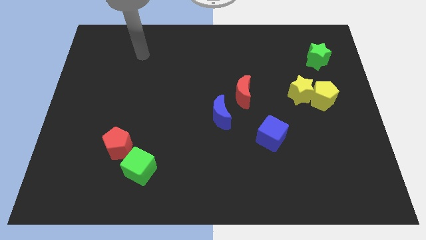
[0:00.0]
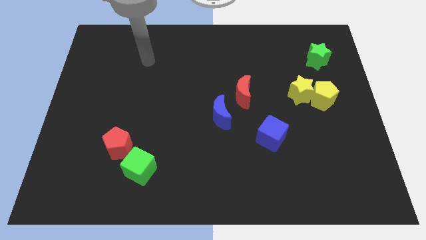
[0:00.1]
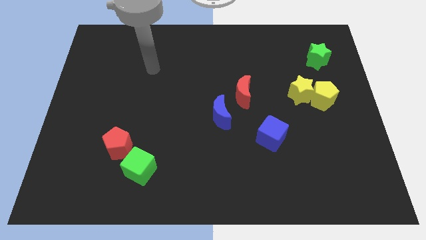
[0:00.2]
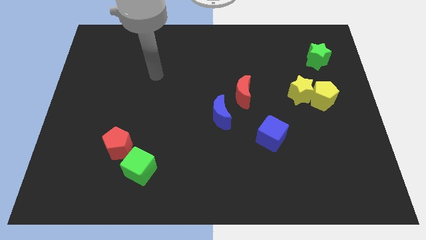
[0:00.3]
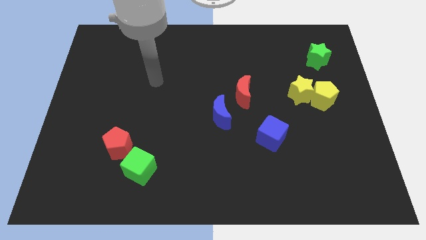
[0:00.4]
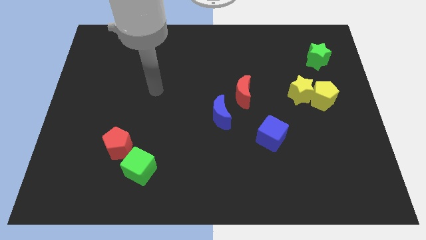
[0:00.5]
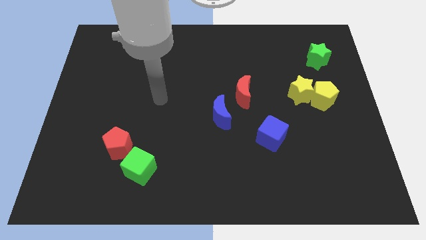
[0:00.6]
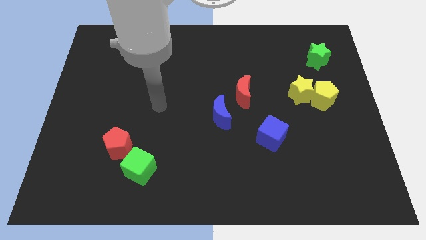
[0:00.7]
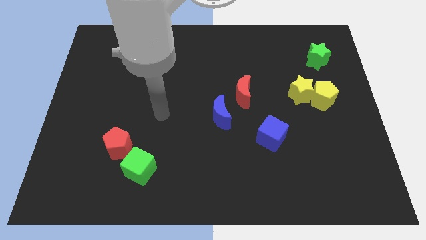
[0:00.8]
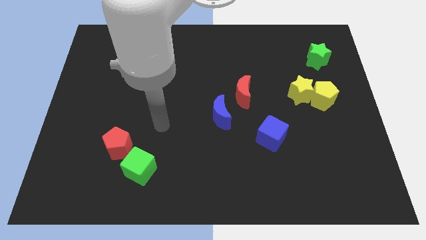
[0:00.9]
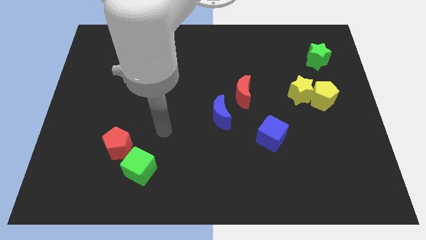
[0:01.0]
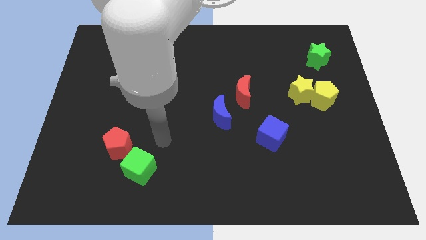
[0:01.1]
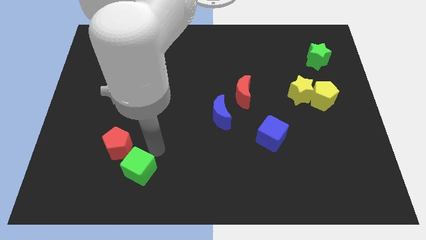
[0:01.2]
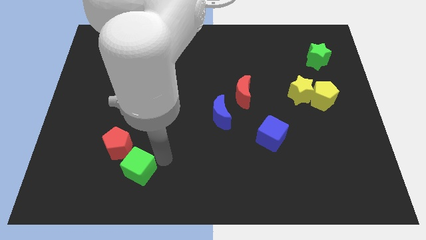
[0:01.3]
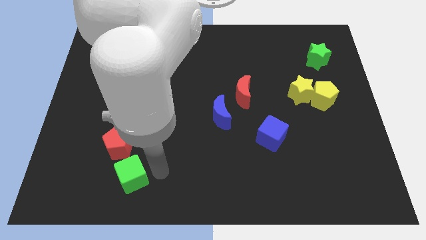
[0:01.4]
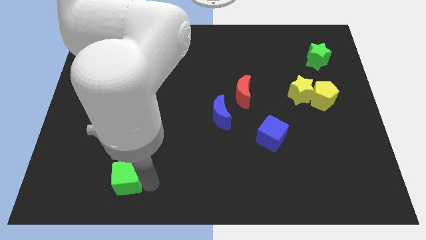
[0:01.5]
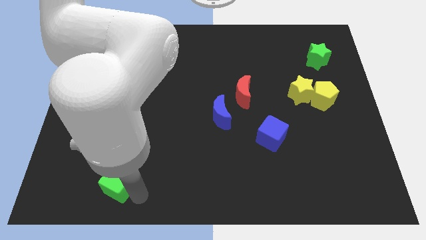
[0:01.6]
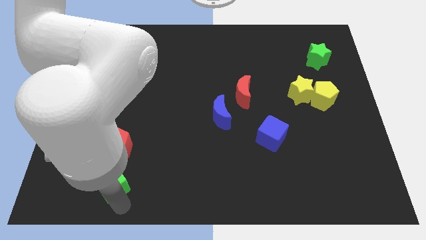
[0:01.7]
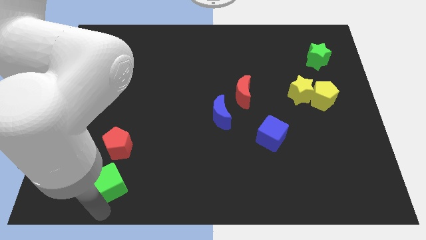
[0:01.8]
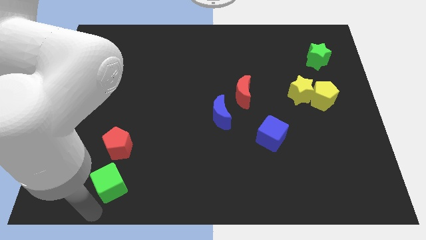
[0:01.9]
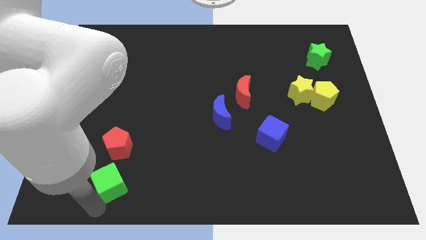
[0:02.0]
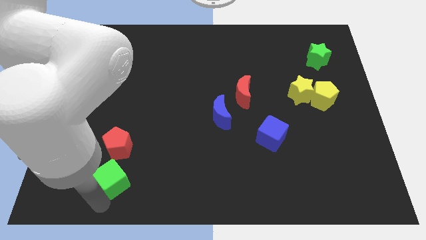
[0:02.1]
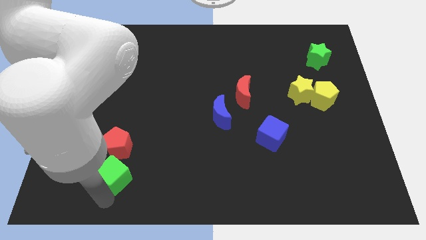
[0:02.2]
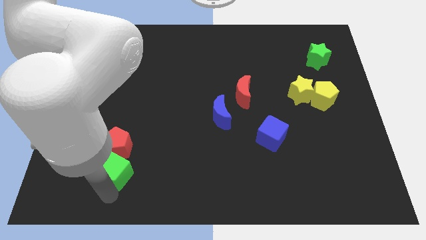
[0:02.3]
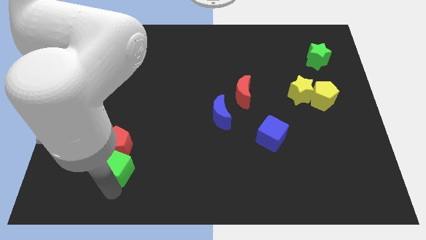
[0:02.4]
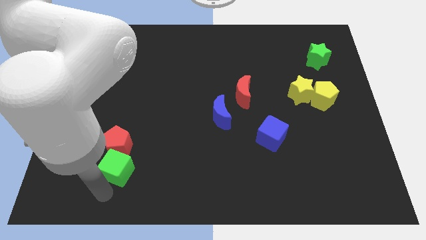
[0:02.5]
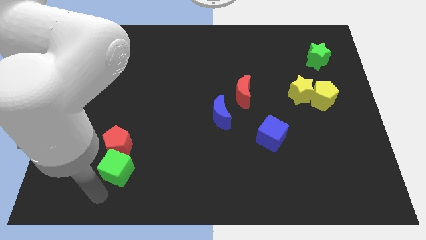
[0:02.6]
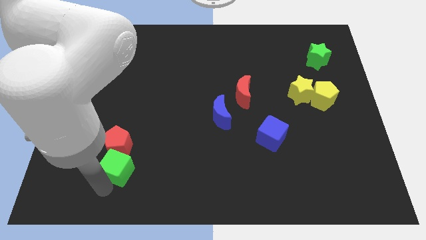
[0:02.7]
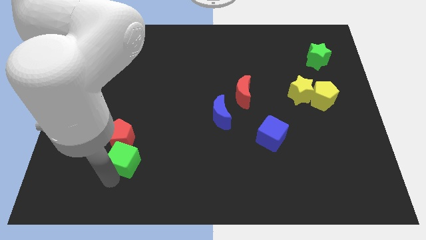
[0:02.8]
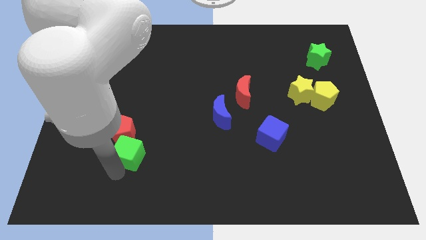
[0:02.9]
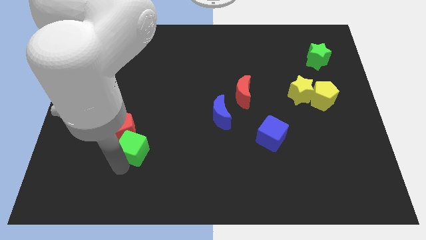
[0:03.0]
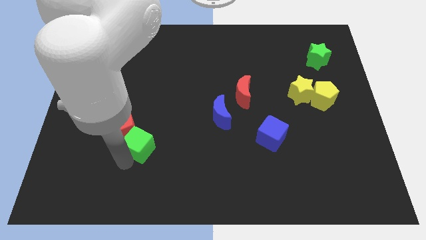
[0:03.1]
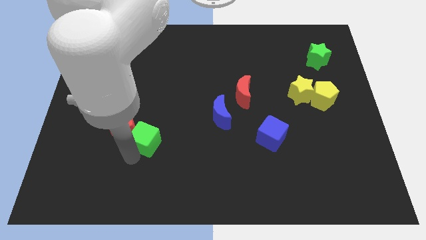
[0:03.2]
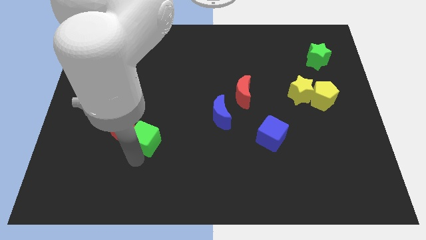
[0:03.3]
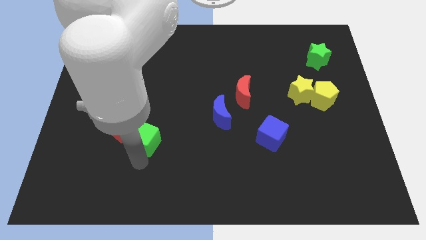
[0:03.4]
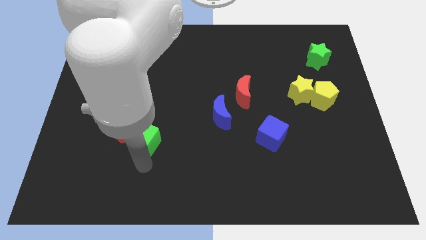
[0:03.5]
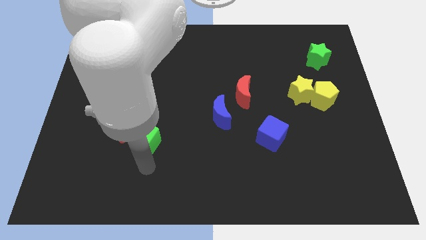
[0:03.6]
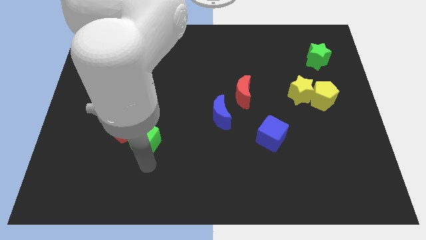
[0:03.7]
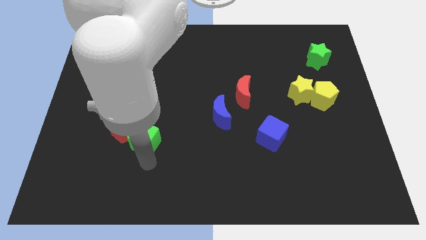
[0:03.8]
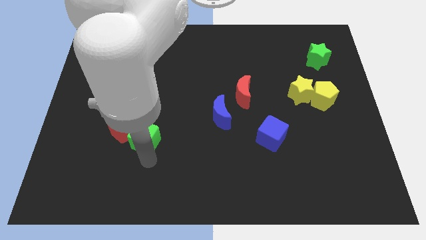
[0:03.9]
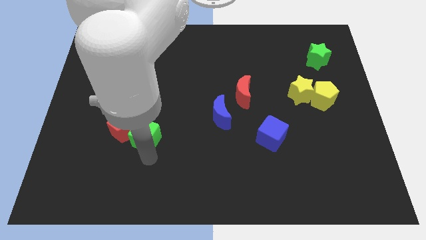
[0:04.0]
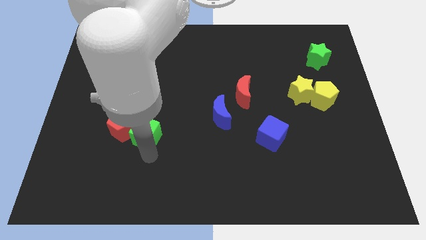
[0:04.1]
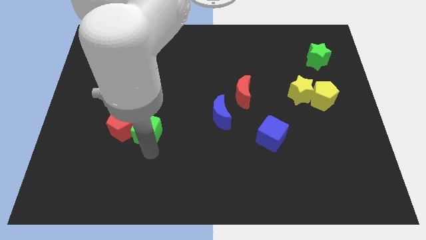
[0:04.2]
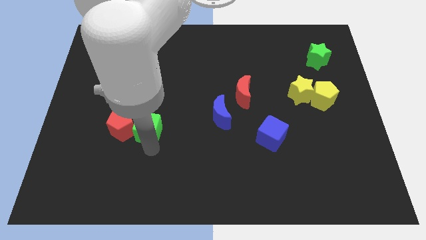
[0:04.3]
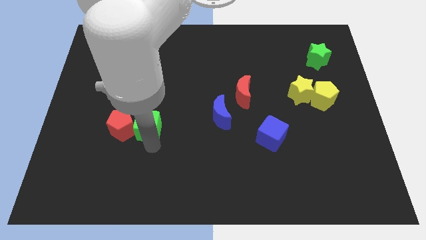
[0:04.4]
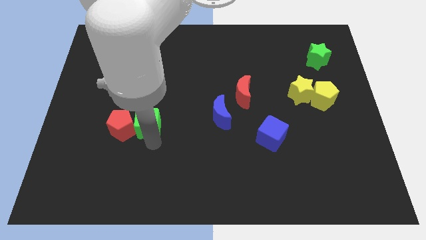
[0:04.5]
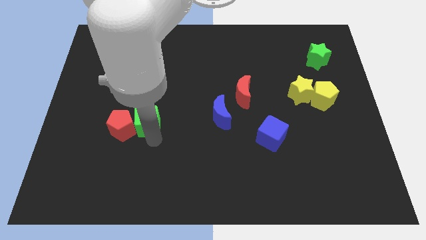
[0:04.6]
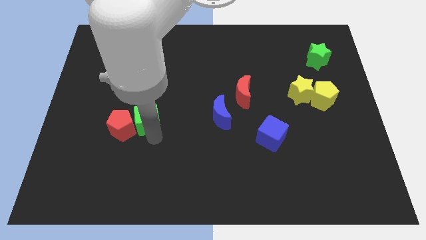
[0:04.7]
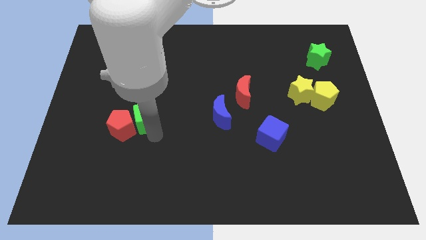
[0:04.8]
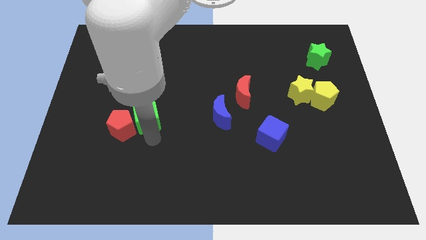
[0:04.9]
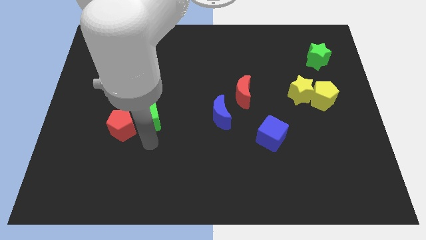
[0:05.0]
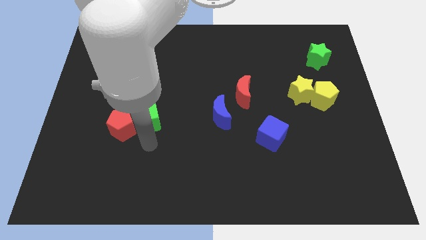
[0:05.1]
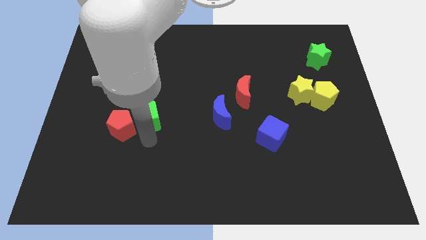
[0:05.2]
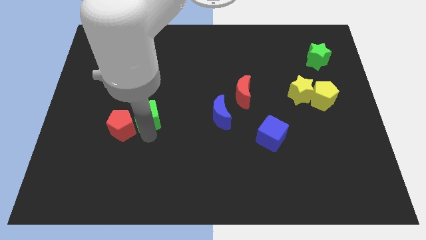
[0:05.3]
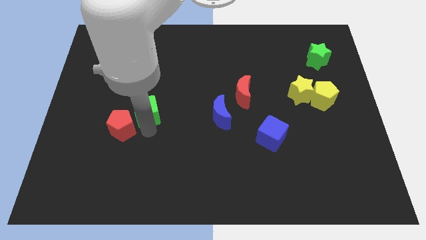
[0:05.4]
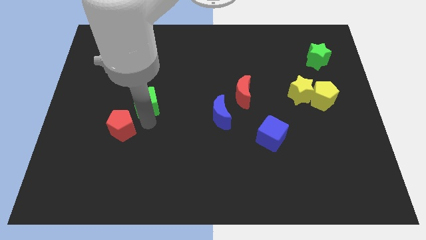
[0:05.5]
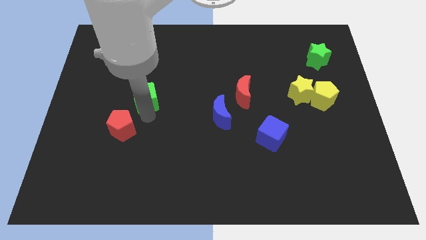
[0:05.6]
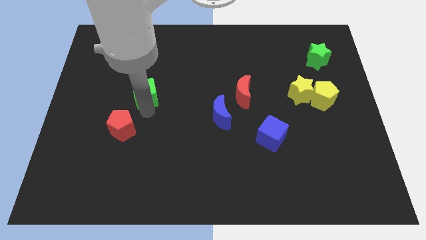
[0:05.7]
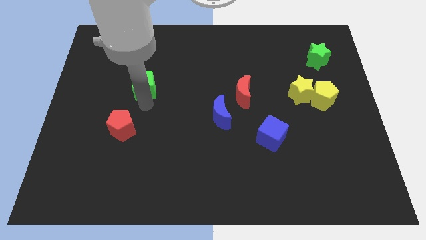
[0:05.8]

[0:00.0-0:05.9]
move the green cube upwards

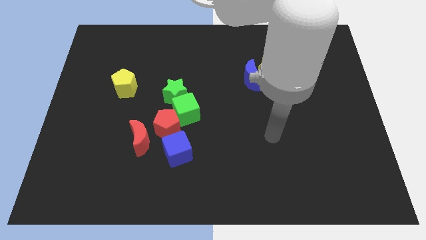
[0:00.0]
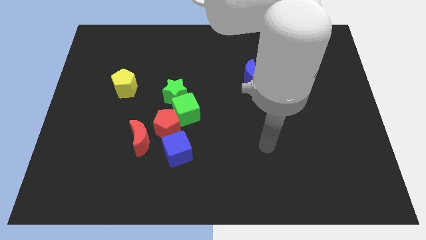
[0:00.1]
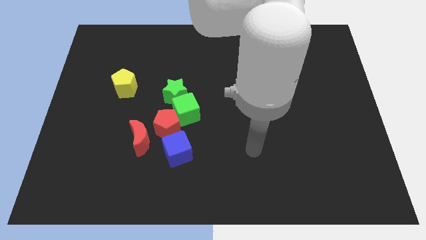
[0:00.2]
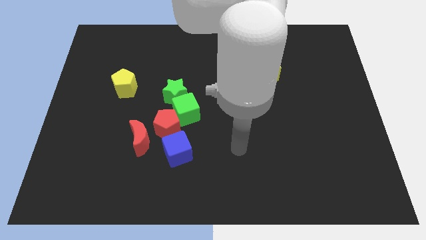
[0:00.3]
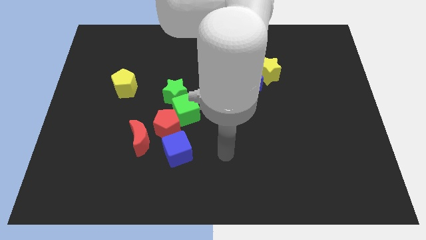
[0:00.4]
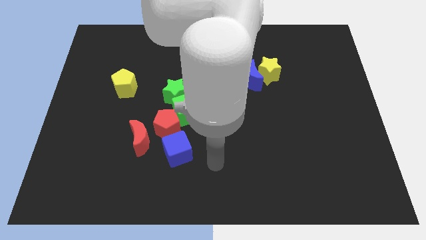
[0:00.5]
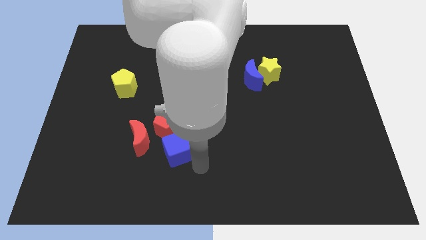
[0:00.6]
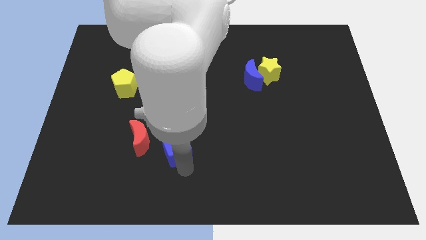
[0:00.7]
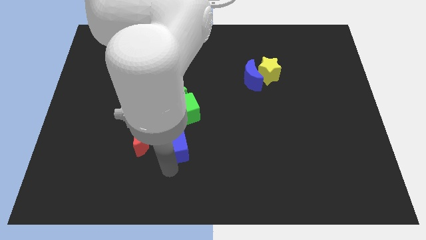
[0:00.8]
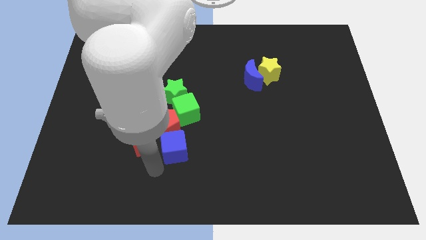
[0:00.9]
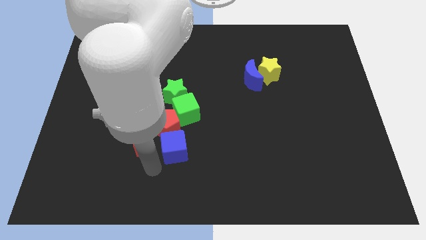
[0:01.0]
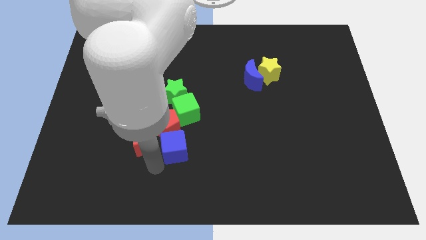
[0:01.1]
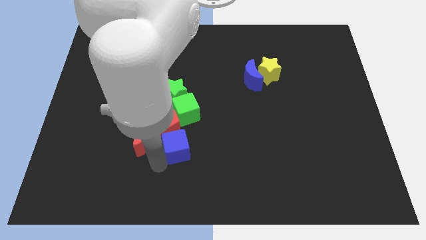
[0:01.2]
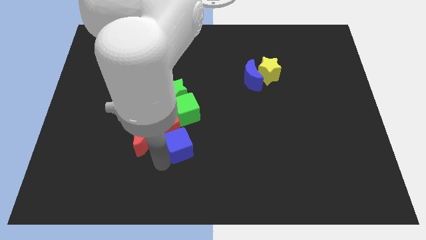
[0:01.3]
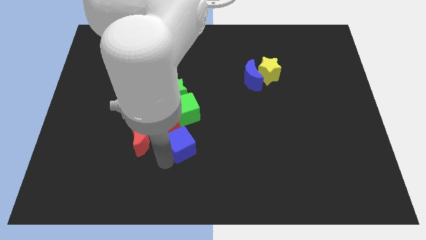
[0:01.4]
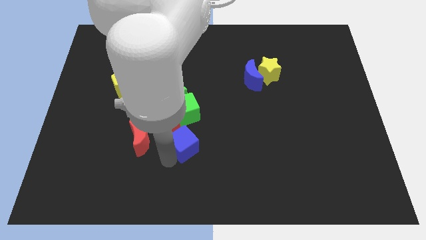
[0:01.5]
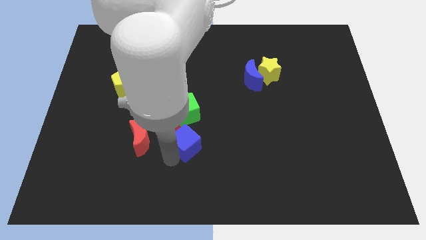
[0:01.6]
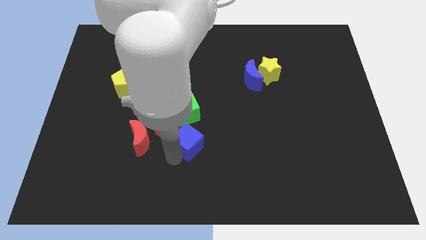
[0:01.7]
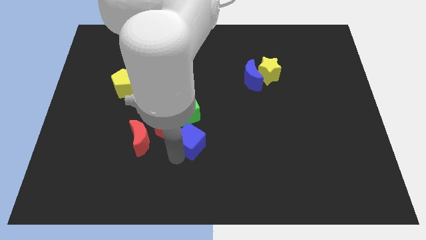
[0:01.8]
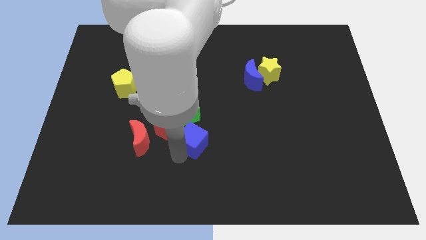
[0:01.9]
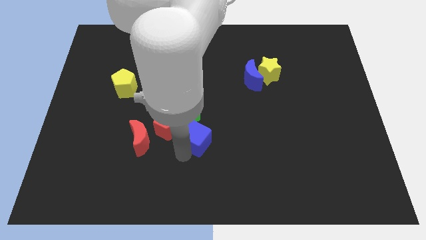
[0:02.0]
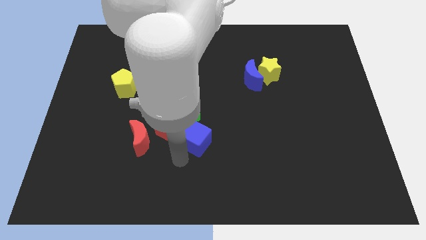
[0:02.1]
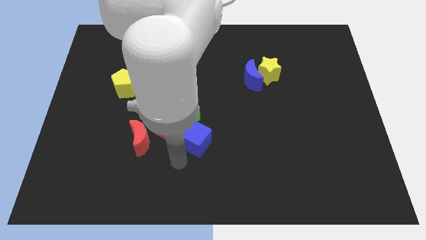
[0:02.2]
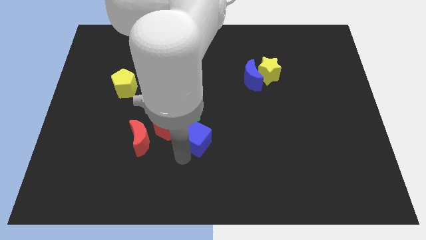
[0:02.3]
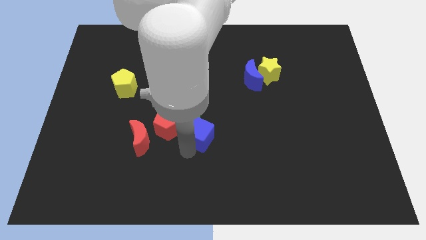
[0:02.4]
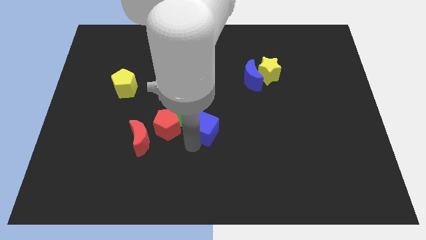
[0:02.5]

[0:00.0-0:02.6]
slightly move the blue cube up and then to the right
